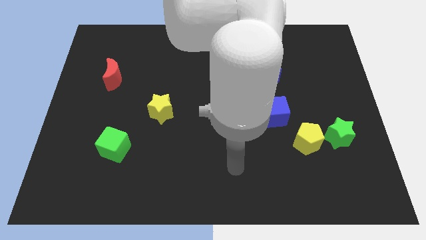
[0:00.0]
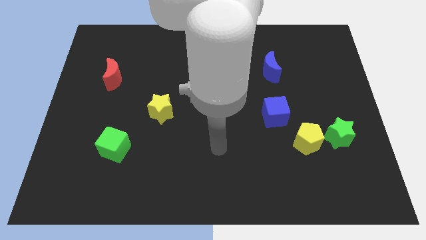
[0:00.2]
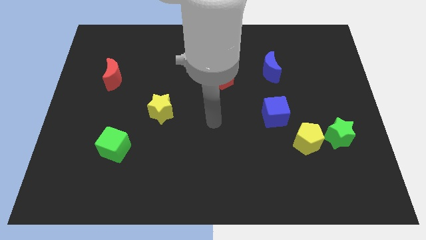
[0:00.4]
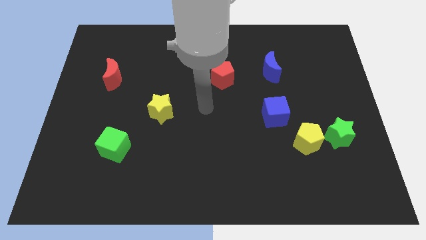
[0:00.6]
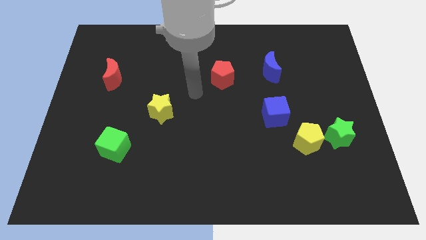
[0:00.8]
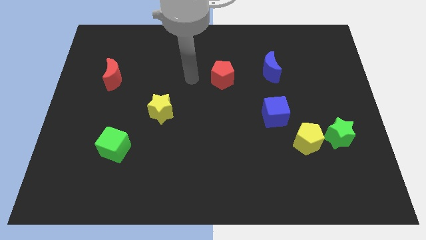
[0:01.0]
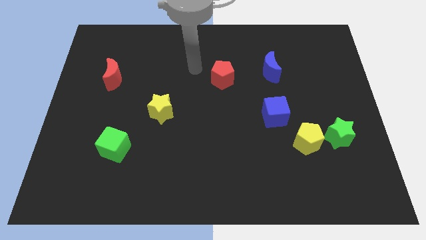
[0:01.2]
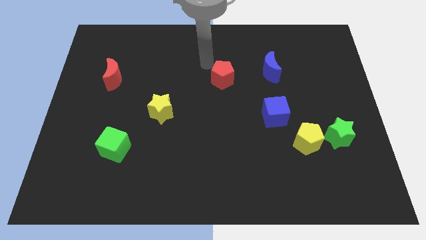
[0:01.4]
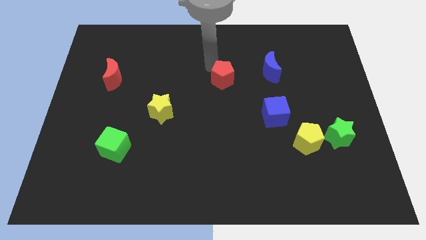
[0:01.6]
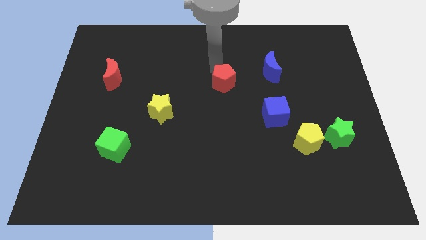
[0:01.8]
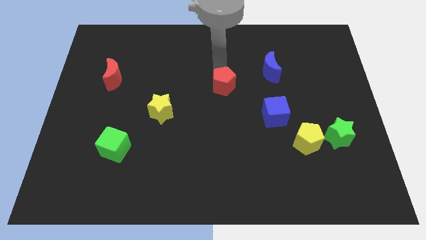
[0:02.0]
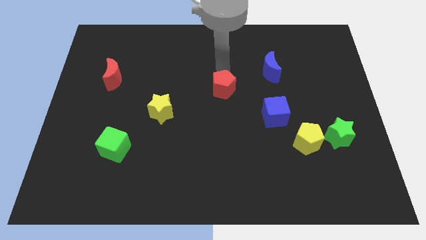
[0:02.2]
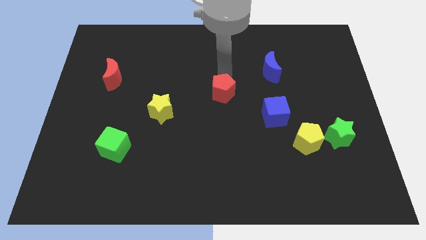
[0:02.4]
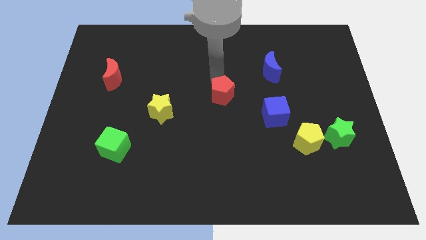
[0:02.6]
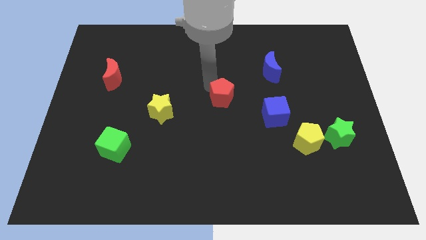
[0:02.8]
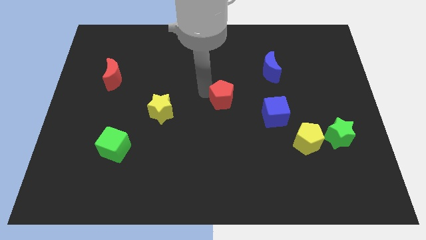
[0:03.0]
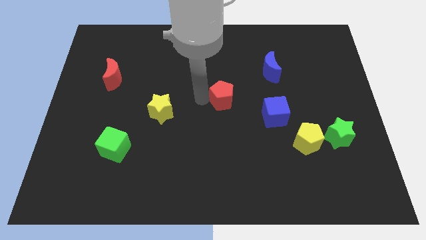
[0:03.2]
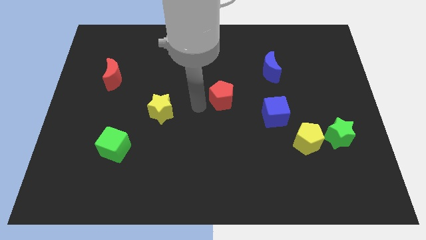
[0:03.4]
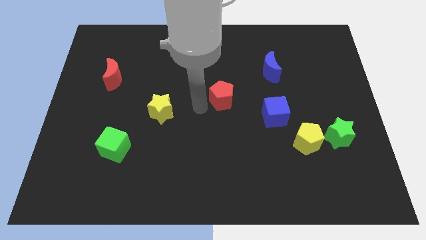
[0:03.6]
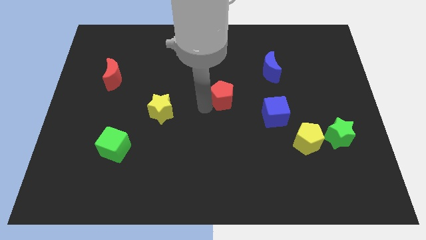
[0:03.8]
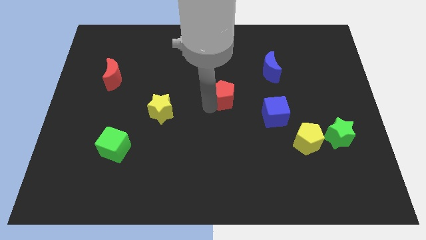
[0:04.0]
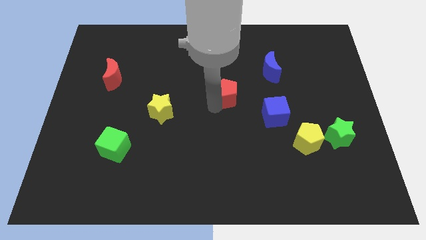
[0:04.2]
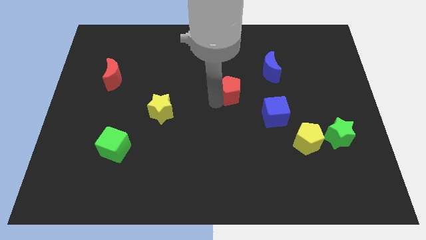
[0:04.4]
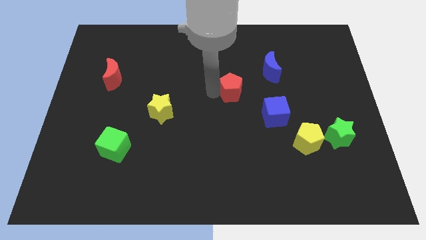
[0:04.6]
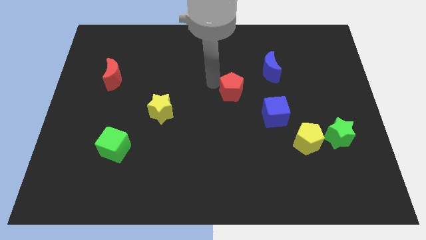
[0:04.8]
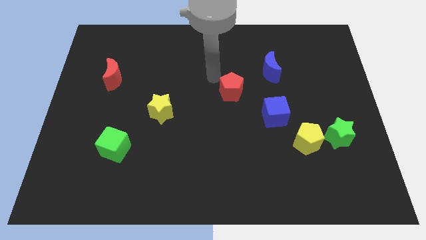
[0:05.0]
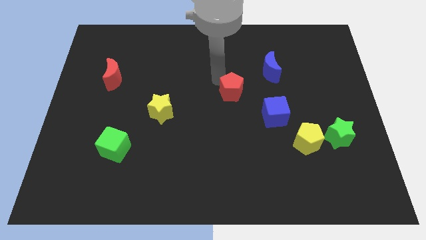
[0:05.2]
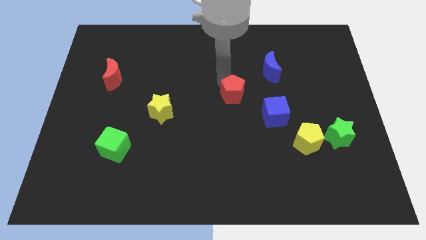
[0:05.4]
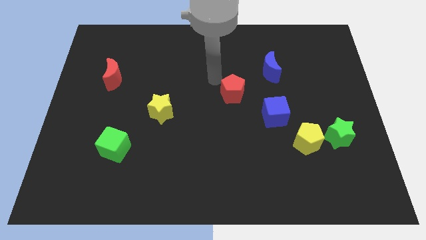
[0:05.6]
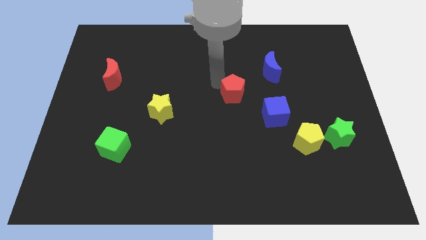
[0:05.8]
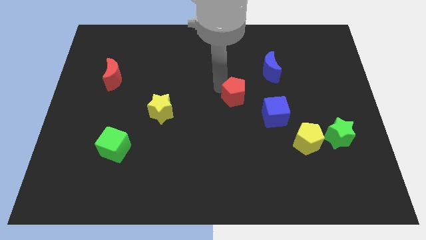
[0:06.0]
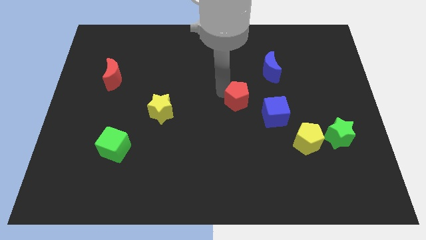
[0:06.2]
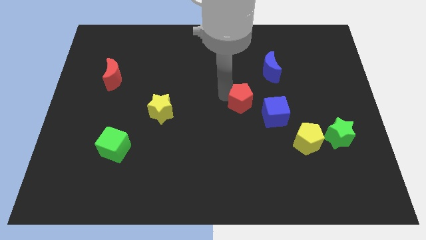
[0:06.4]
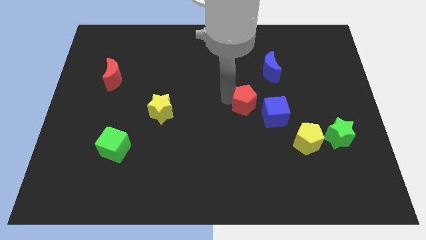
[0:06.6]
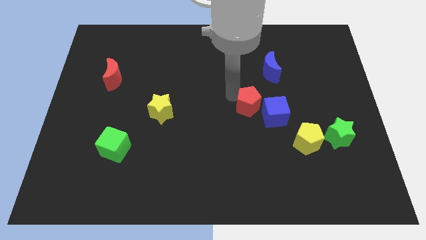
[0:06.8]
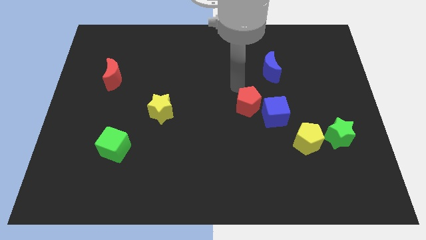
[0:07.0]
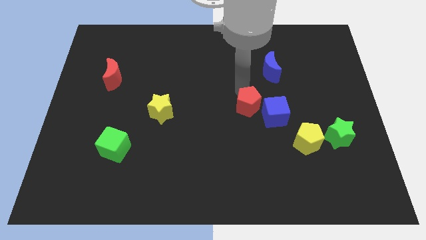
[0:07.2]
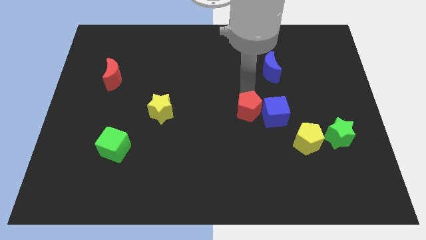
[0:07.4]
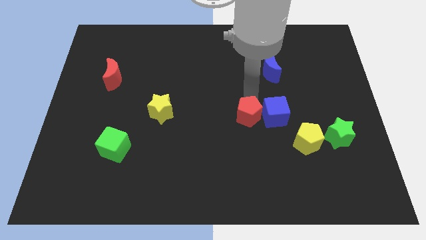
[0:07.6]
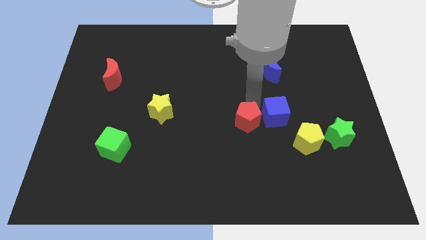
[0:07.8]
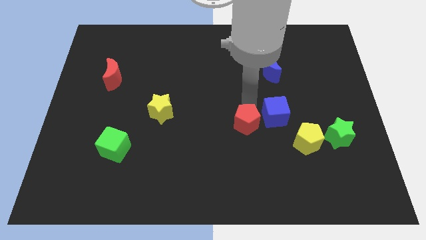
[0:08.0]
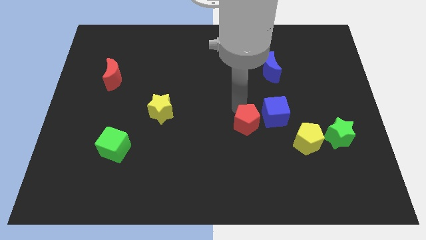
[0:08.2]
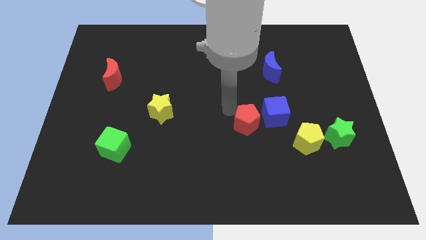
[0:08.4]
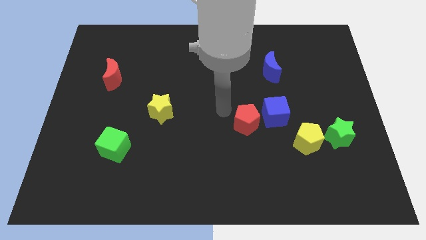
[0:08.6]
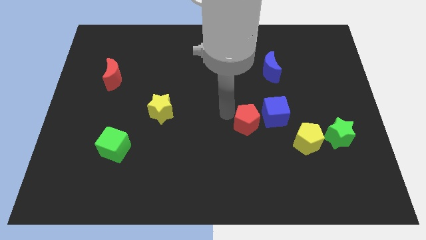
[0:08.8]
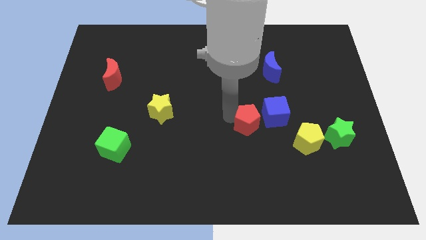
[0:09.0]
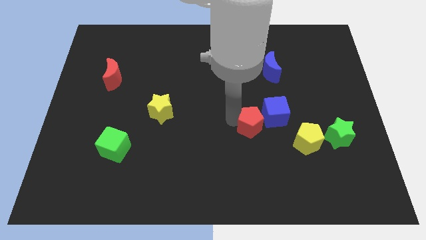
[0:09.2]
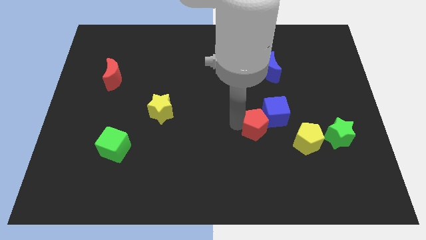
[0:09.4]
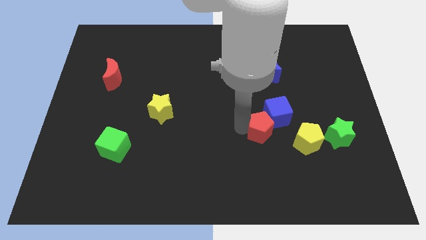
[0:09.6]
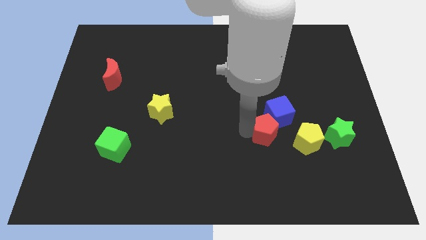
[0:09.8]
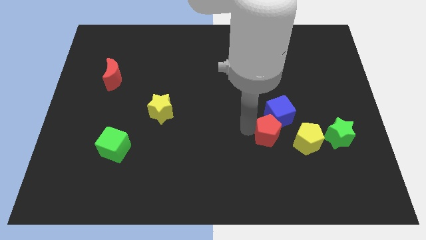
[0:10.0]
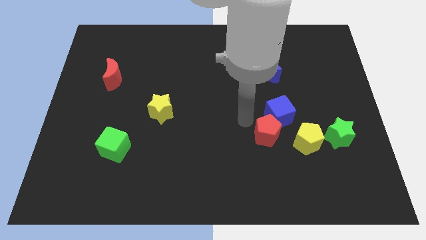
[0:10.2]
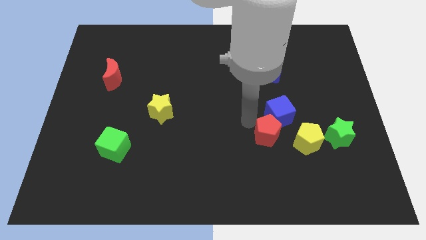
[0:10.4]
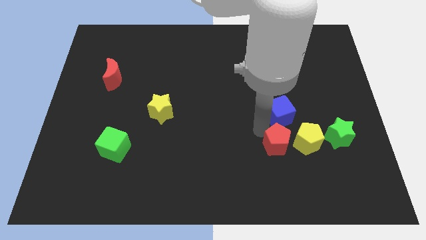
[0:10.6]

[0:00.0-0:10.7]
slide the red pentagon downwards and then to the right

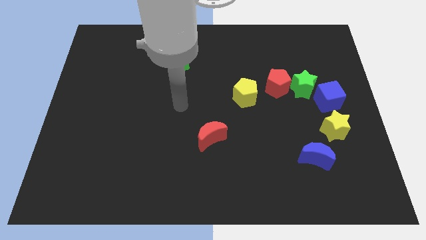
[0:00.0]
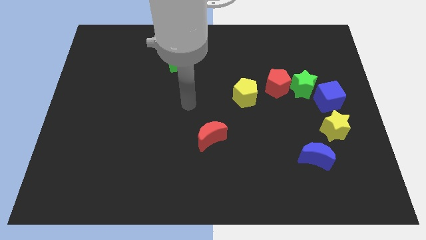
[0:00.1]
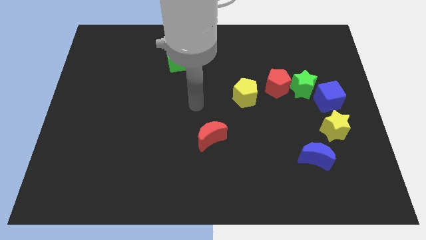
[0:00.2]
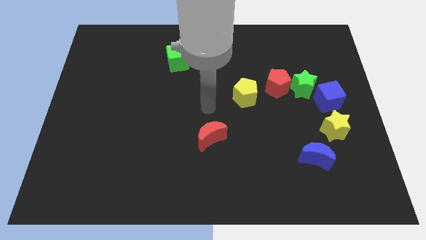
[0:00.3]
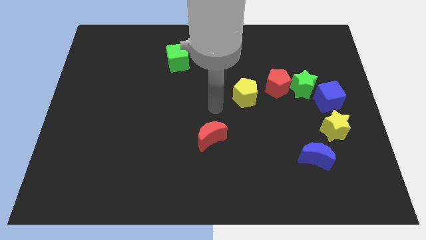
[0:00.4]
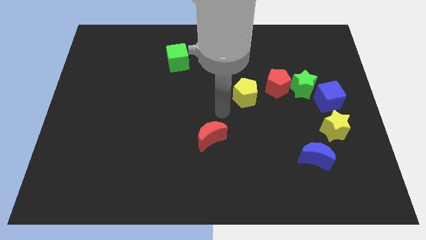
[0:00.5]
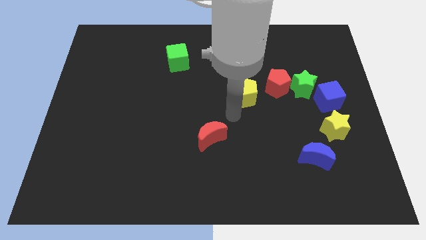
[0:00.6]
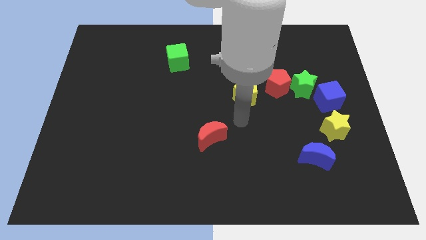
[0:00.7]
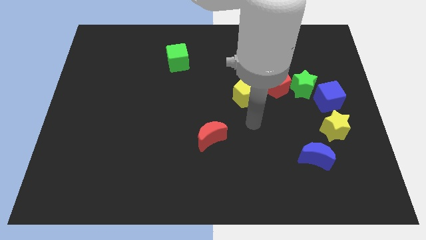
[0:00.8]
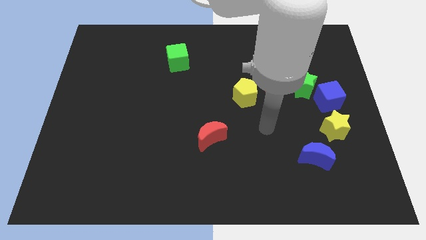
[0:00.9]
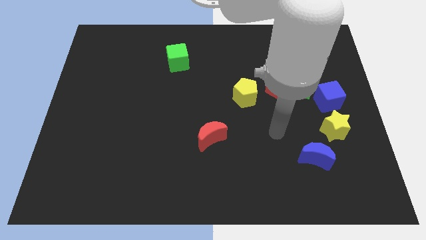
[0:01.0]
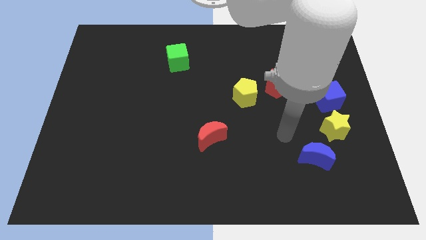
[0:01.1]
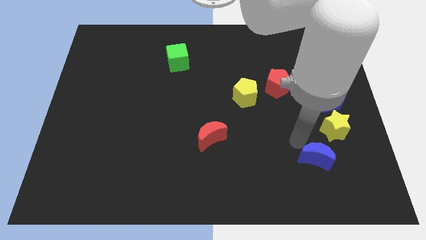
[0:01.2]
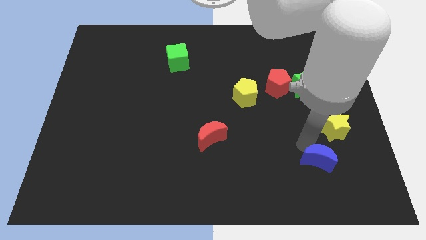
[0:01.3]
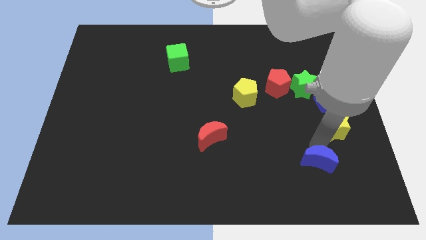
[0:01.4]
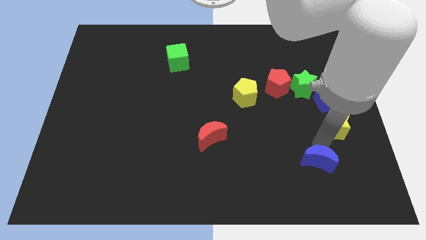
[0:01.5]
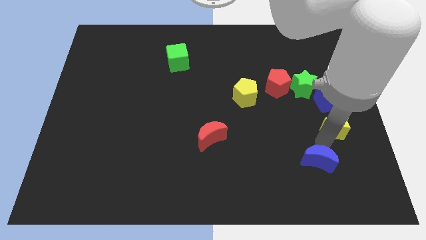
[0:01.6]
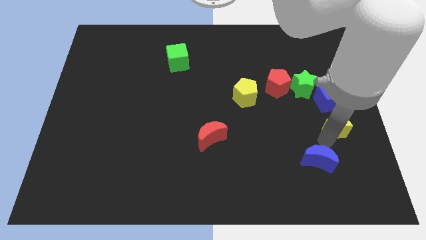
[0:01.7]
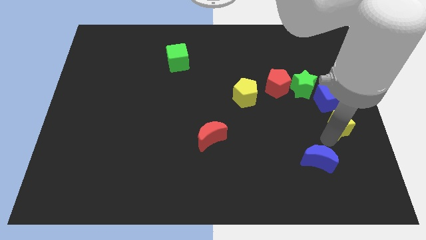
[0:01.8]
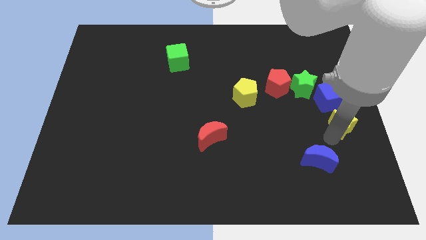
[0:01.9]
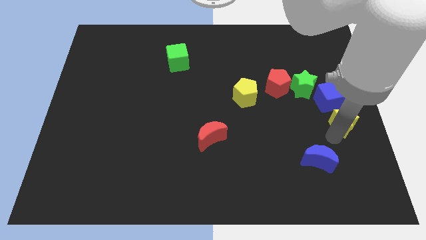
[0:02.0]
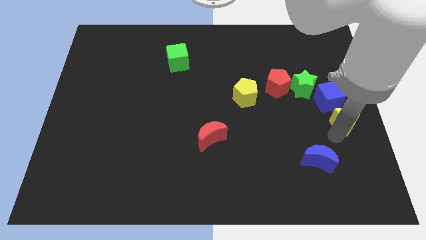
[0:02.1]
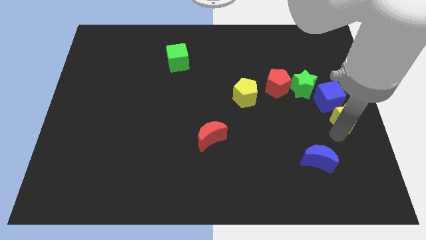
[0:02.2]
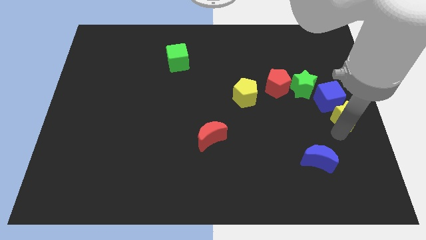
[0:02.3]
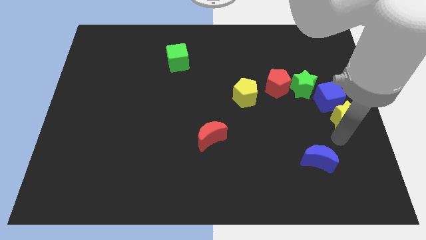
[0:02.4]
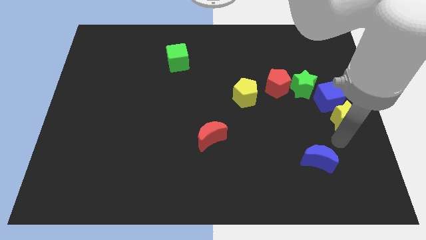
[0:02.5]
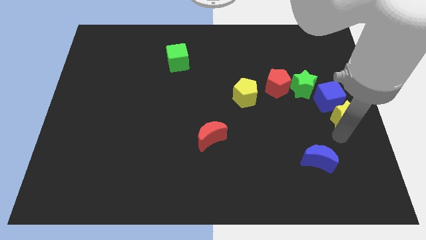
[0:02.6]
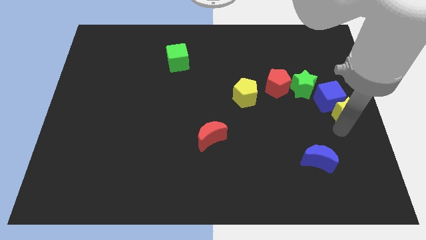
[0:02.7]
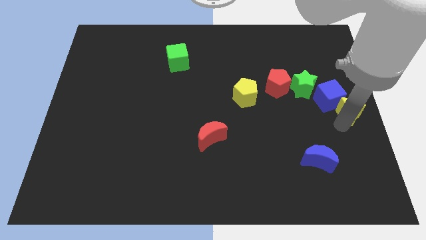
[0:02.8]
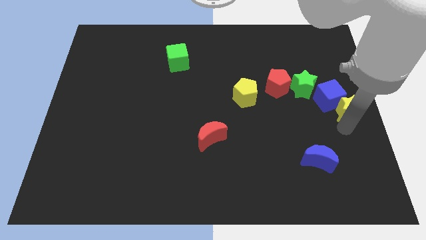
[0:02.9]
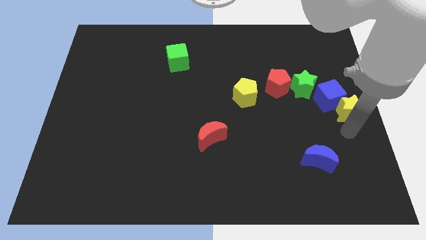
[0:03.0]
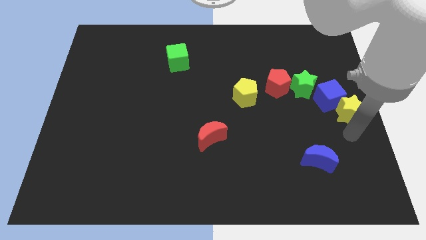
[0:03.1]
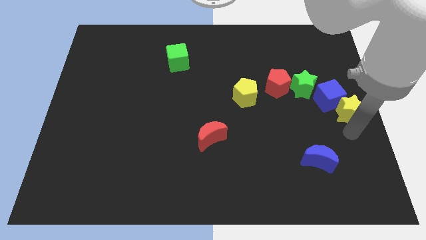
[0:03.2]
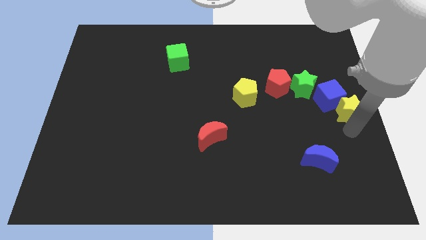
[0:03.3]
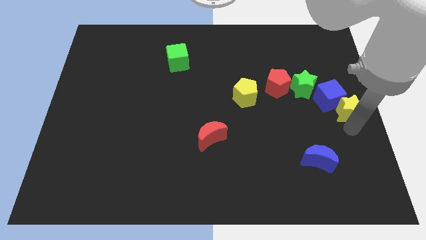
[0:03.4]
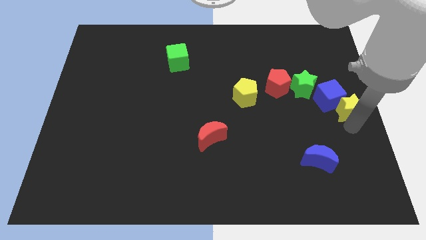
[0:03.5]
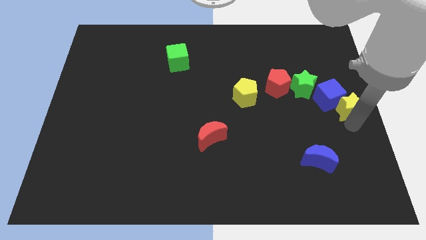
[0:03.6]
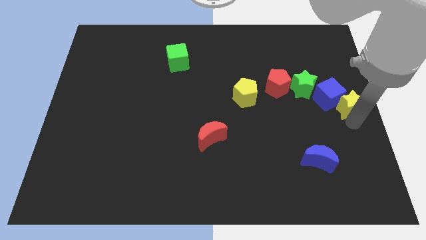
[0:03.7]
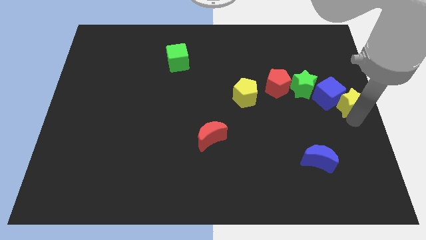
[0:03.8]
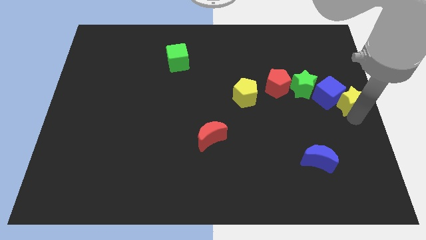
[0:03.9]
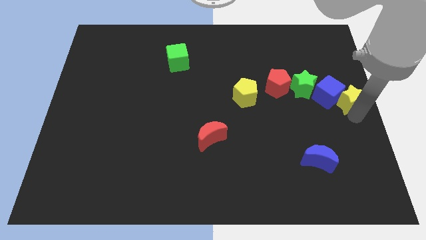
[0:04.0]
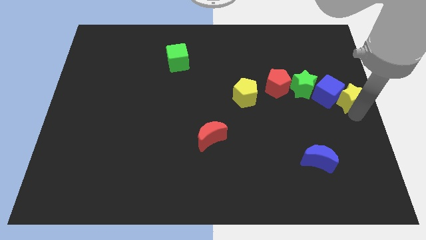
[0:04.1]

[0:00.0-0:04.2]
push the yellow star up a bit
